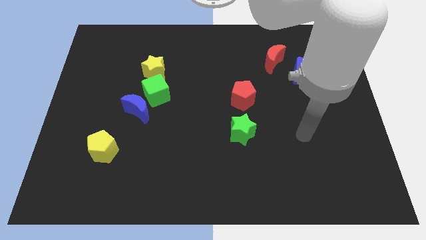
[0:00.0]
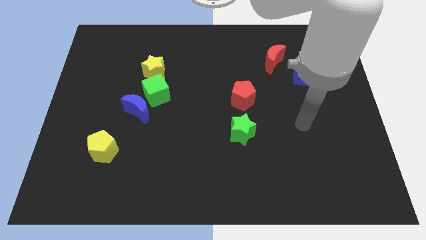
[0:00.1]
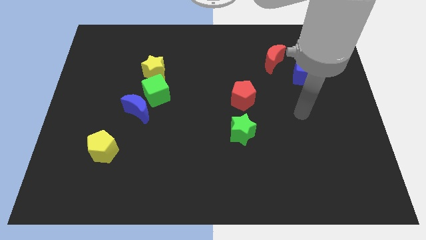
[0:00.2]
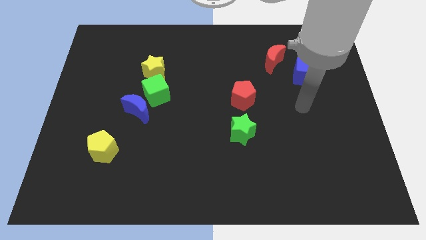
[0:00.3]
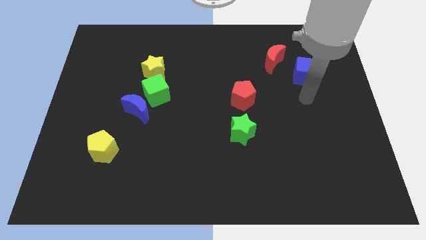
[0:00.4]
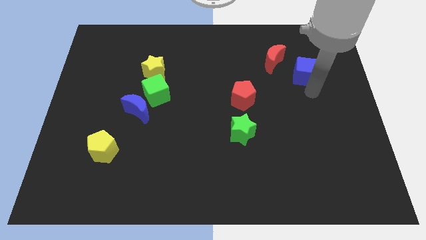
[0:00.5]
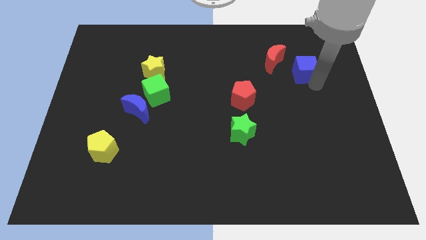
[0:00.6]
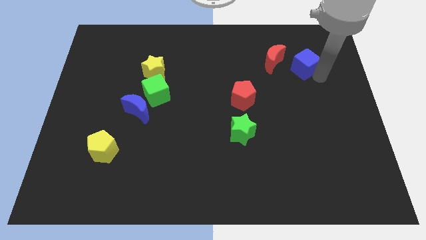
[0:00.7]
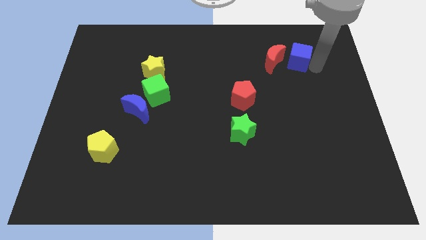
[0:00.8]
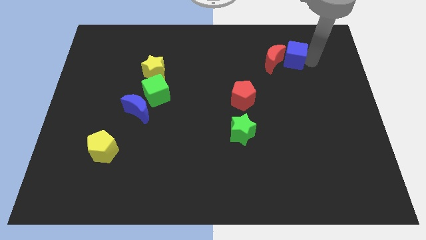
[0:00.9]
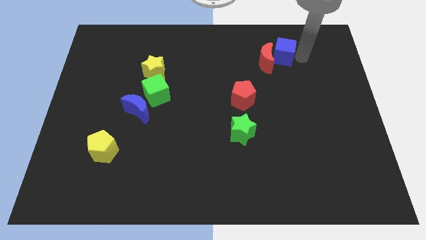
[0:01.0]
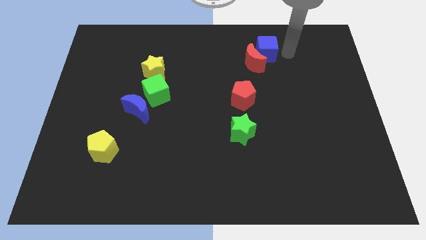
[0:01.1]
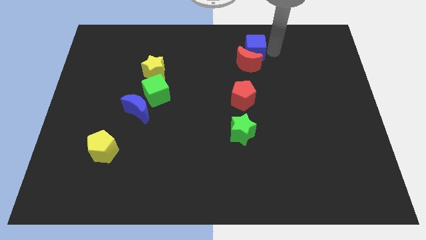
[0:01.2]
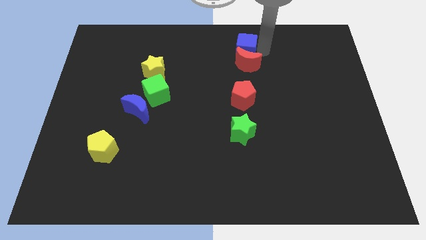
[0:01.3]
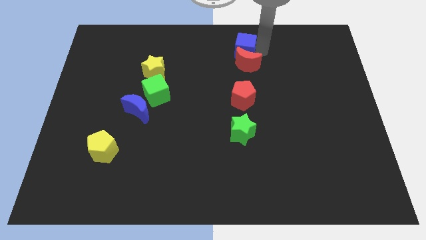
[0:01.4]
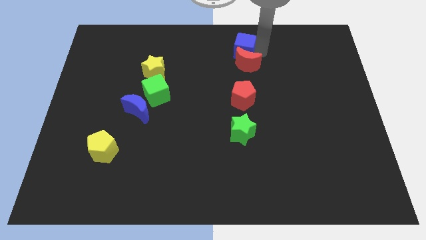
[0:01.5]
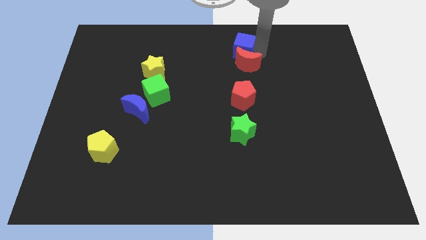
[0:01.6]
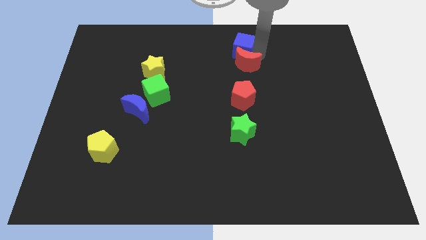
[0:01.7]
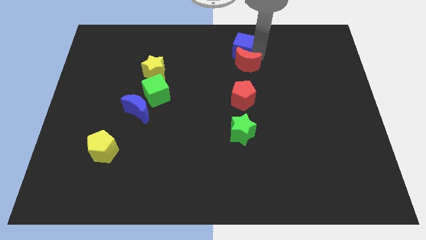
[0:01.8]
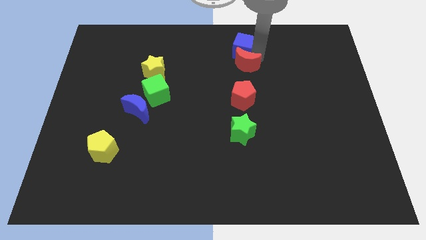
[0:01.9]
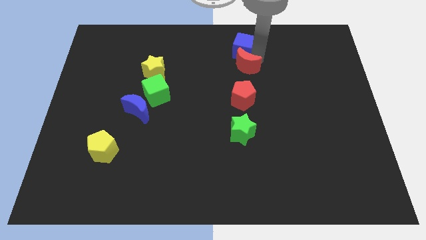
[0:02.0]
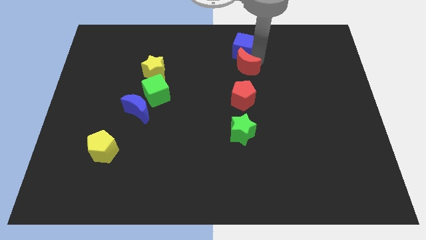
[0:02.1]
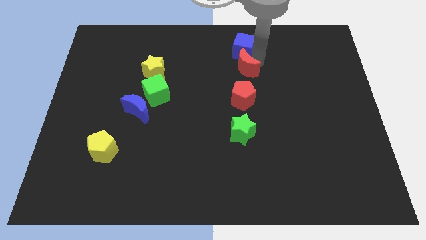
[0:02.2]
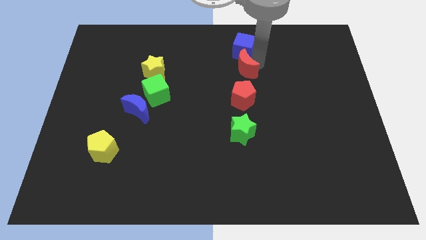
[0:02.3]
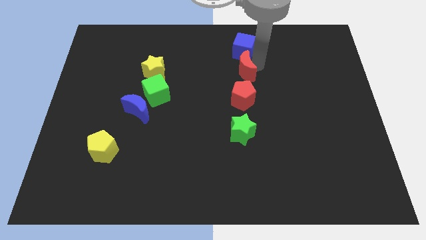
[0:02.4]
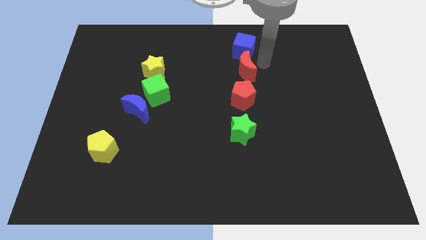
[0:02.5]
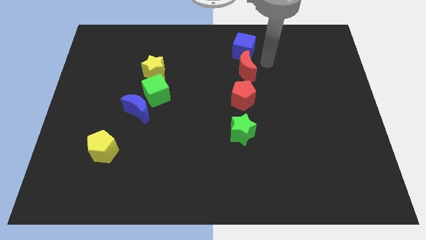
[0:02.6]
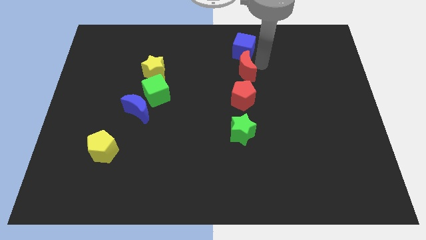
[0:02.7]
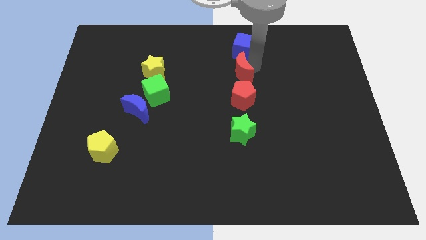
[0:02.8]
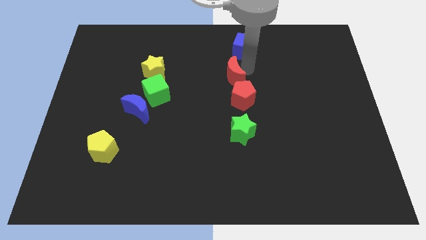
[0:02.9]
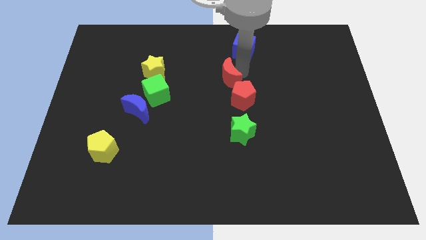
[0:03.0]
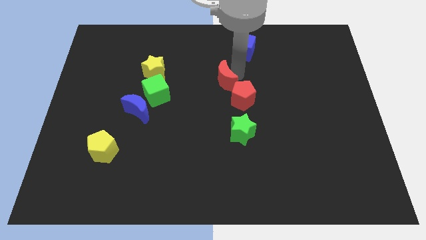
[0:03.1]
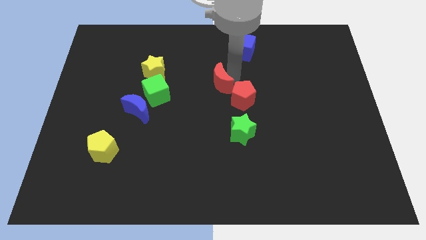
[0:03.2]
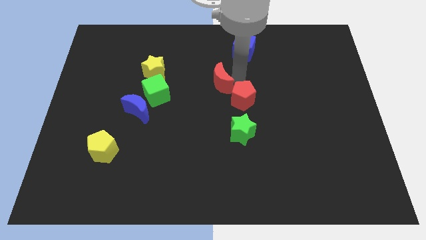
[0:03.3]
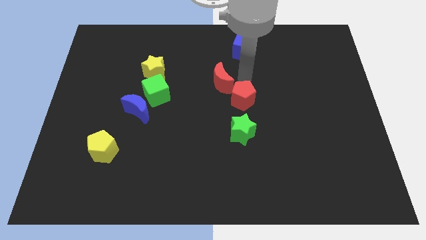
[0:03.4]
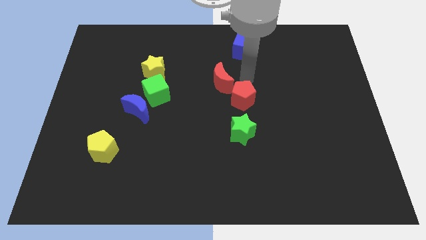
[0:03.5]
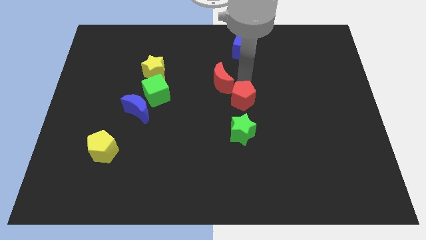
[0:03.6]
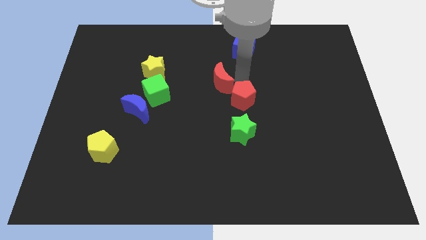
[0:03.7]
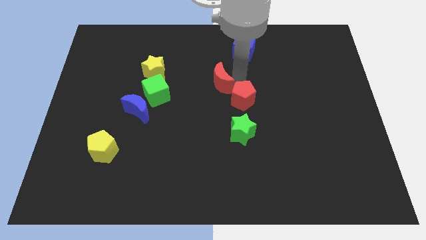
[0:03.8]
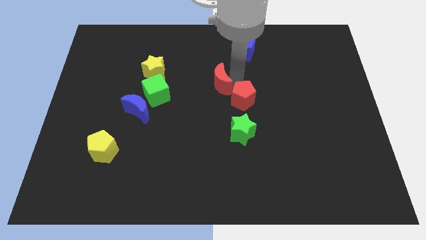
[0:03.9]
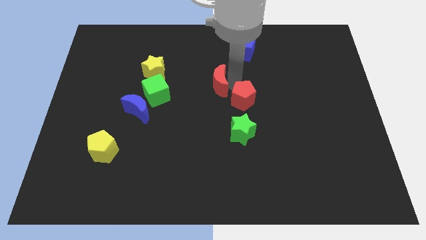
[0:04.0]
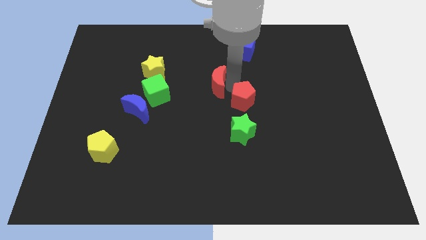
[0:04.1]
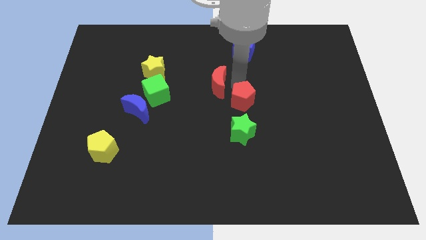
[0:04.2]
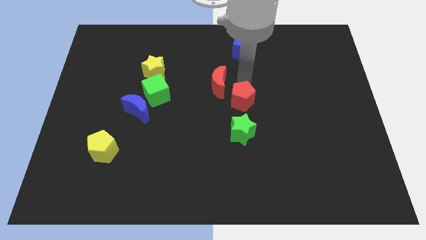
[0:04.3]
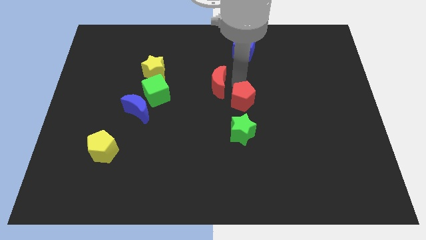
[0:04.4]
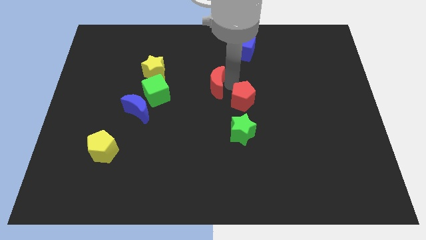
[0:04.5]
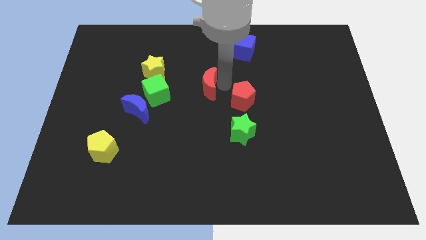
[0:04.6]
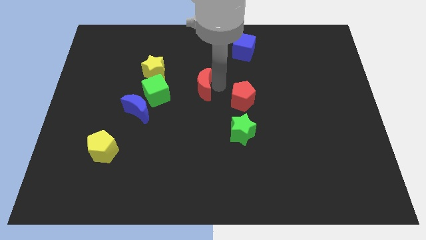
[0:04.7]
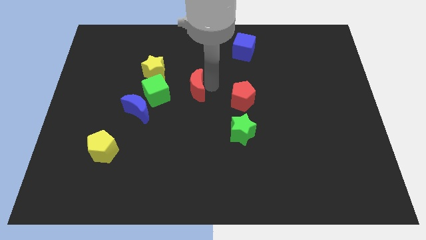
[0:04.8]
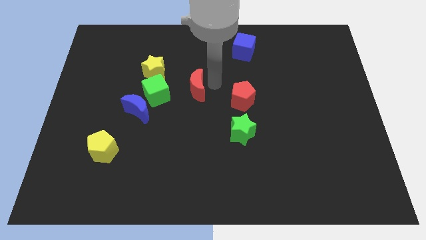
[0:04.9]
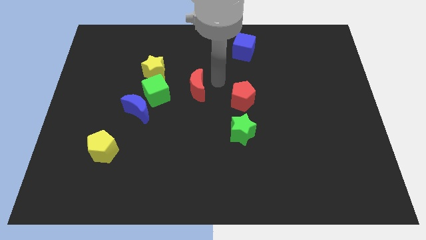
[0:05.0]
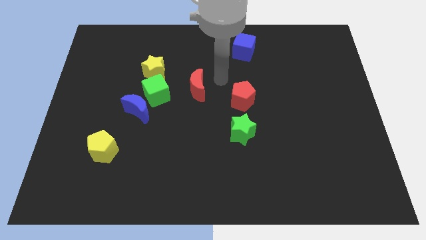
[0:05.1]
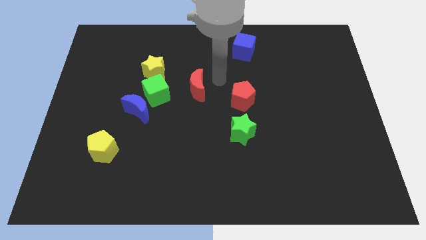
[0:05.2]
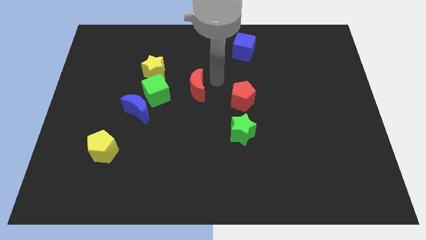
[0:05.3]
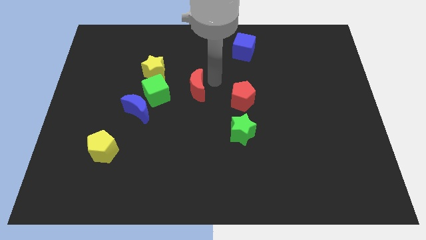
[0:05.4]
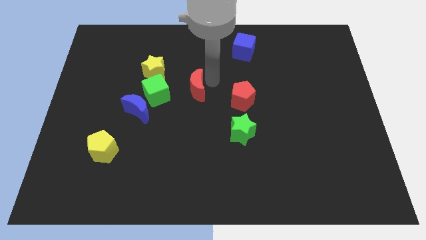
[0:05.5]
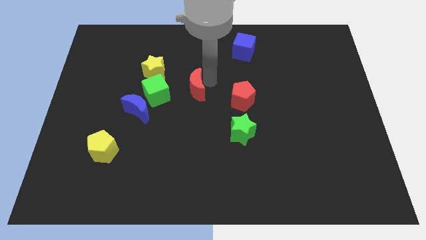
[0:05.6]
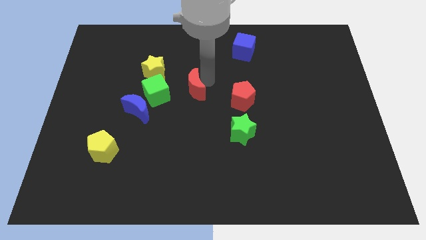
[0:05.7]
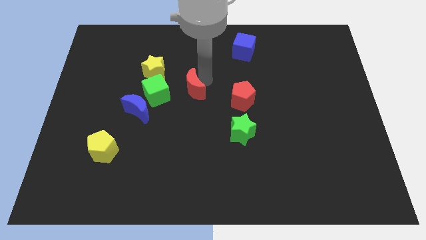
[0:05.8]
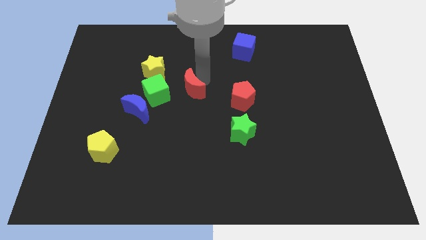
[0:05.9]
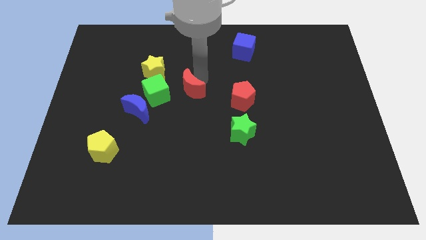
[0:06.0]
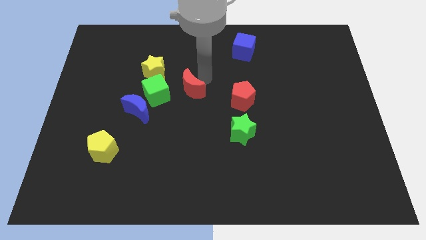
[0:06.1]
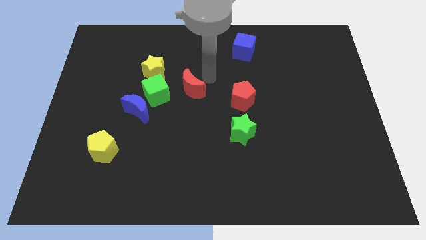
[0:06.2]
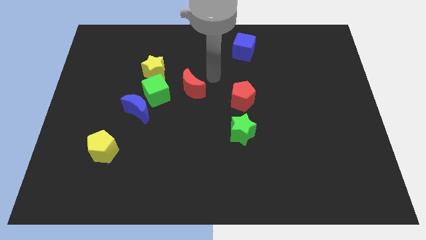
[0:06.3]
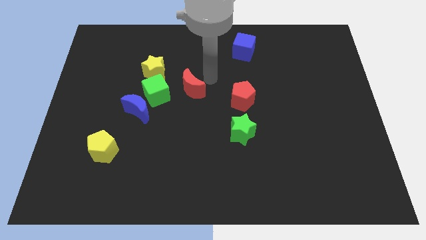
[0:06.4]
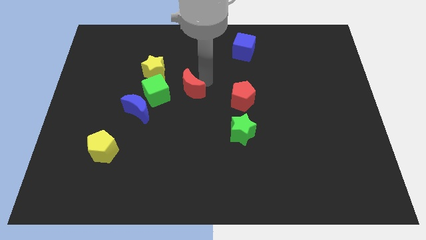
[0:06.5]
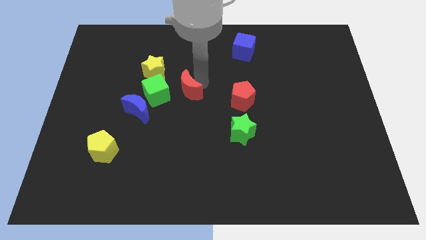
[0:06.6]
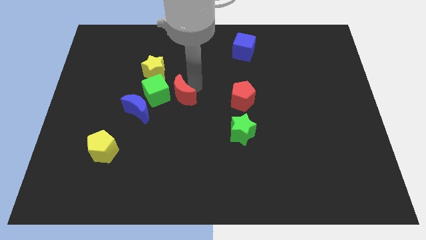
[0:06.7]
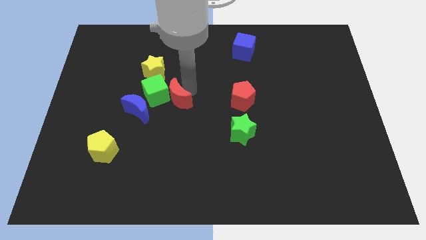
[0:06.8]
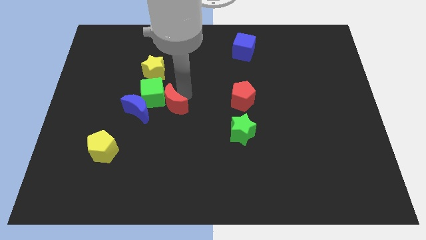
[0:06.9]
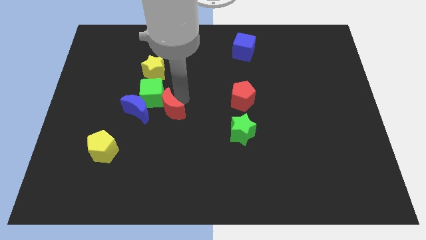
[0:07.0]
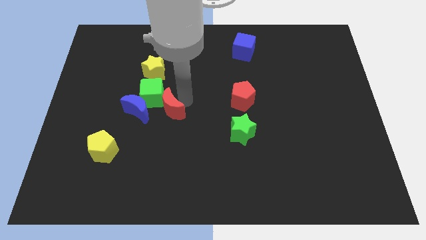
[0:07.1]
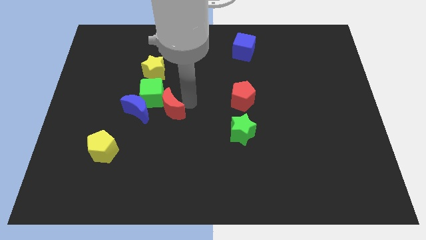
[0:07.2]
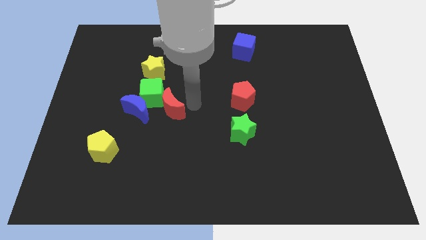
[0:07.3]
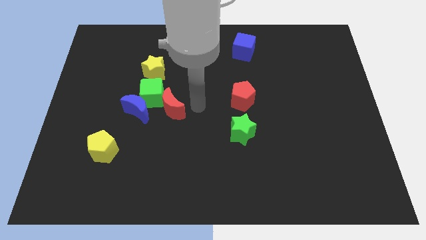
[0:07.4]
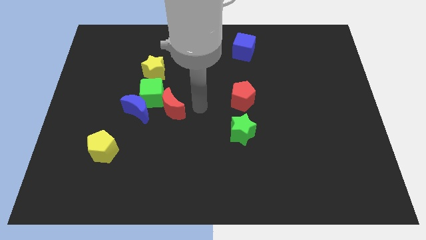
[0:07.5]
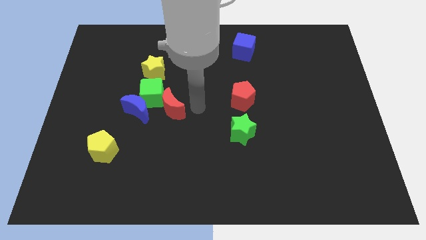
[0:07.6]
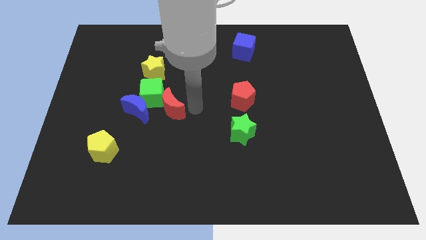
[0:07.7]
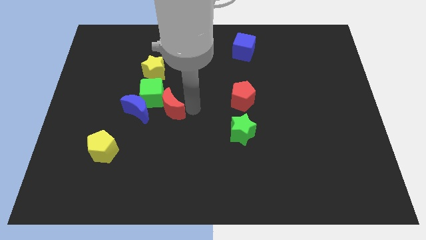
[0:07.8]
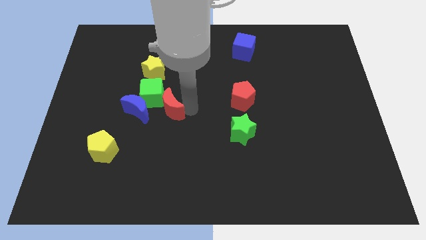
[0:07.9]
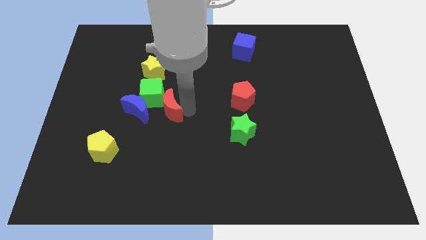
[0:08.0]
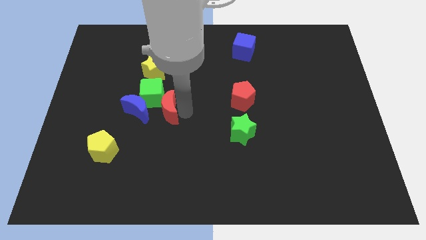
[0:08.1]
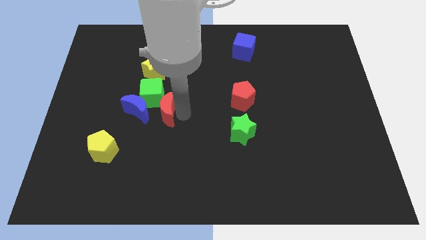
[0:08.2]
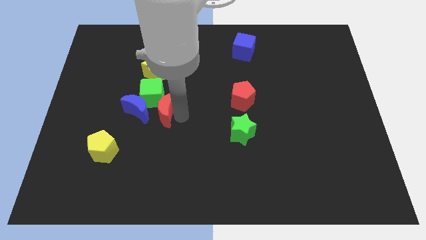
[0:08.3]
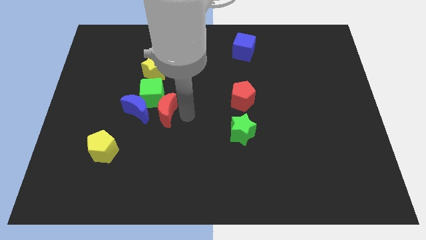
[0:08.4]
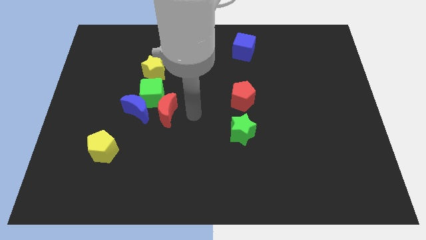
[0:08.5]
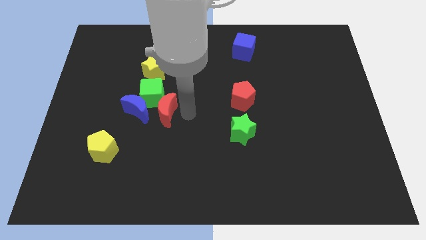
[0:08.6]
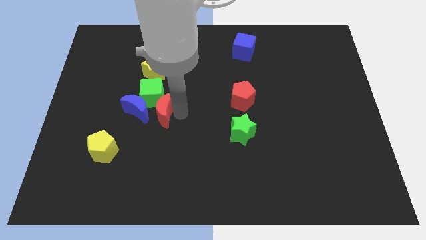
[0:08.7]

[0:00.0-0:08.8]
move the red moon close to the blue moon
